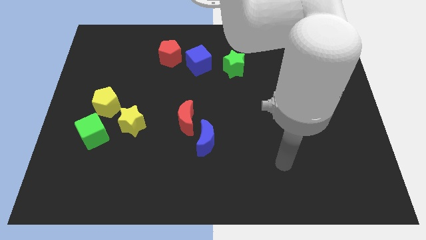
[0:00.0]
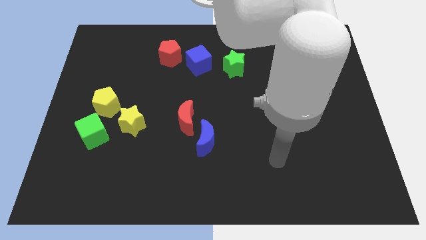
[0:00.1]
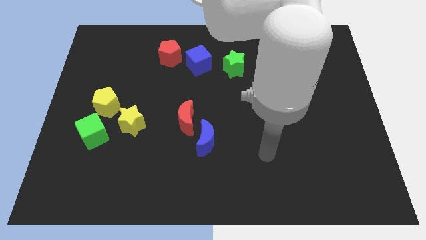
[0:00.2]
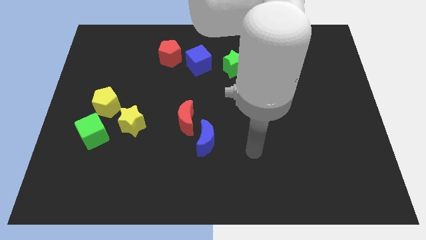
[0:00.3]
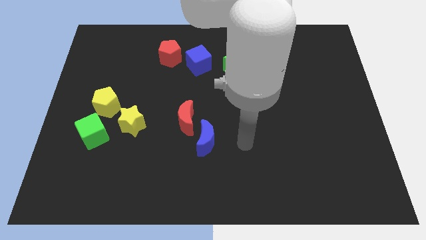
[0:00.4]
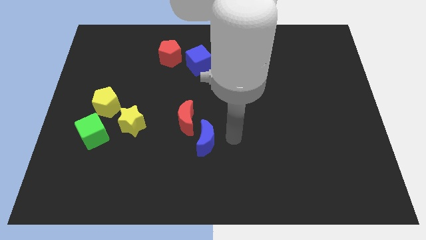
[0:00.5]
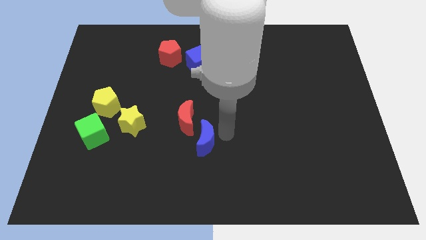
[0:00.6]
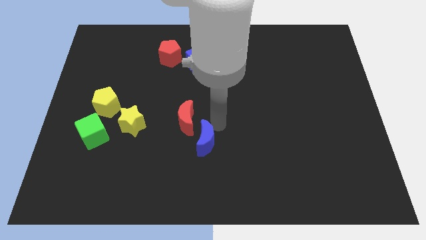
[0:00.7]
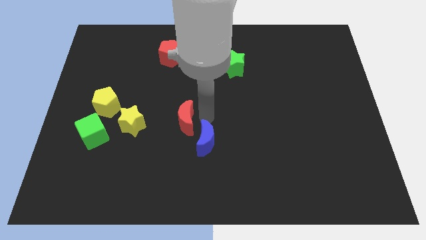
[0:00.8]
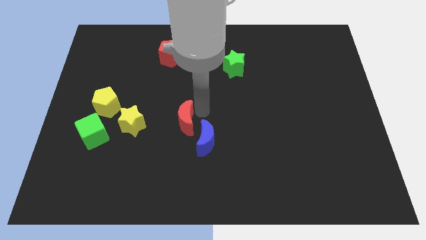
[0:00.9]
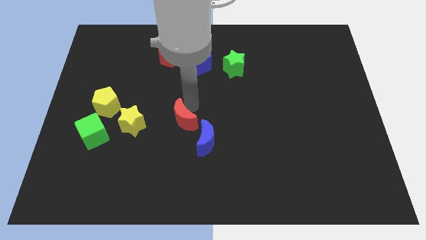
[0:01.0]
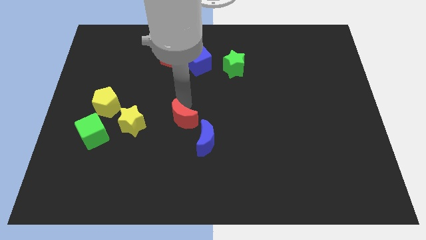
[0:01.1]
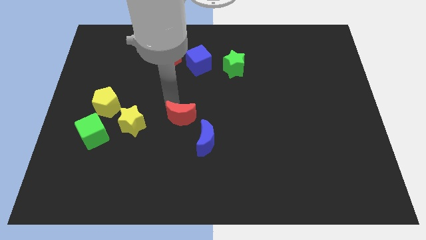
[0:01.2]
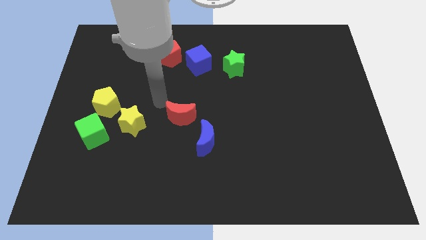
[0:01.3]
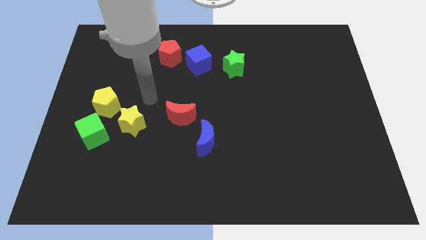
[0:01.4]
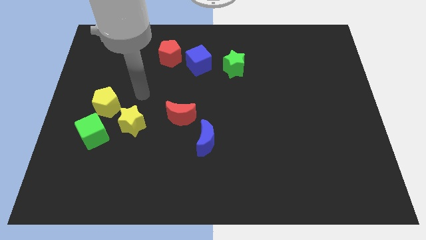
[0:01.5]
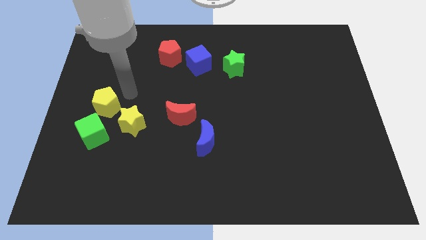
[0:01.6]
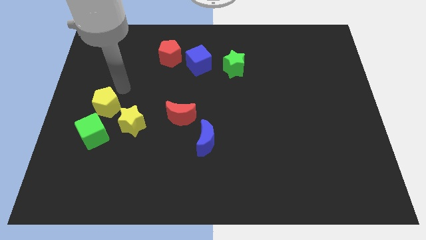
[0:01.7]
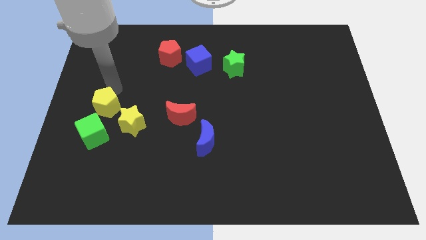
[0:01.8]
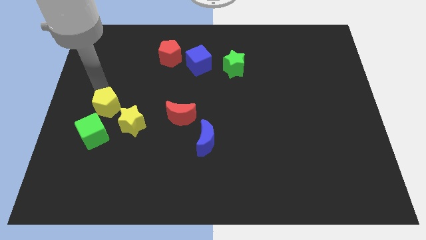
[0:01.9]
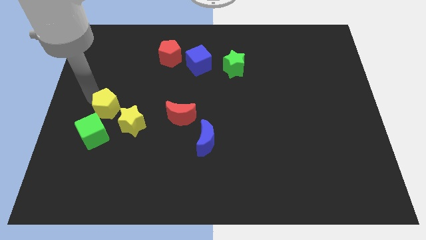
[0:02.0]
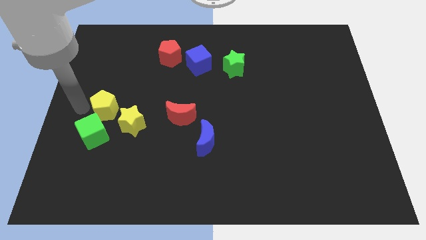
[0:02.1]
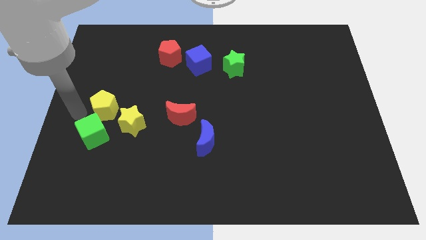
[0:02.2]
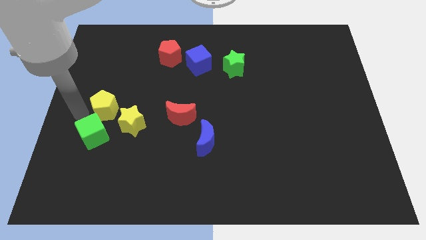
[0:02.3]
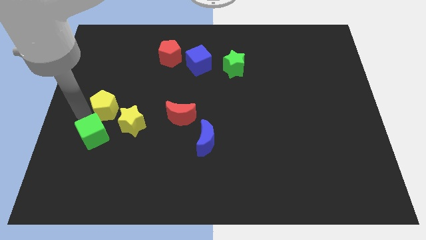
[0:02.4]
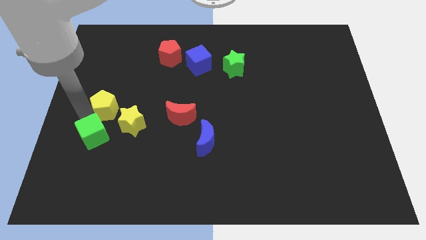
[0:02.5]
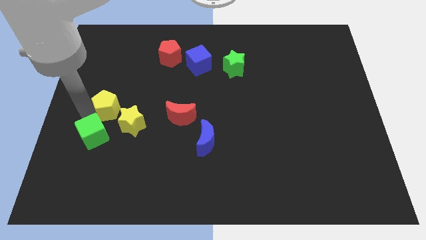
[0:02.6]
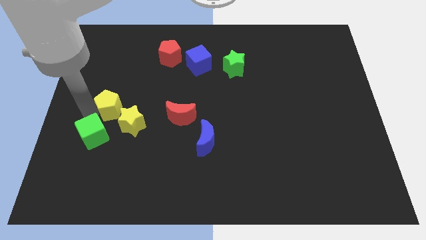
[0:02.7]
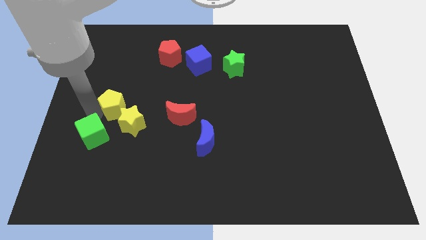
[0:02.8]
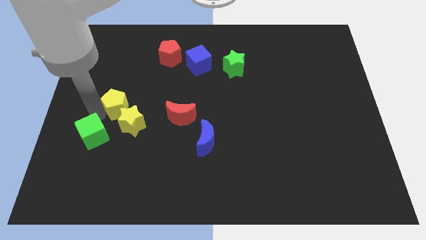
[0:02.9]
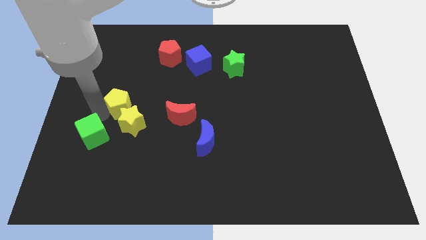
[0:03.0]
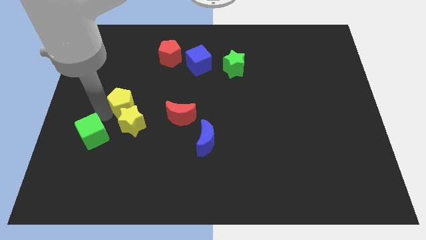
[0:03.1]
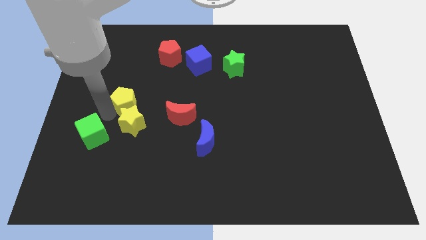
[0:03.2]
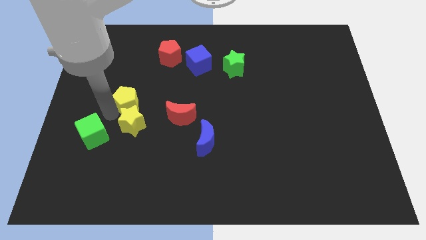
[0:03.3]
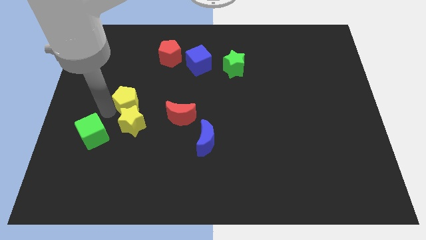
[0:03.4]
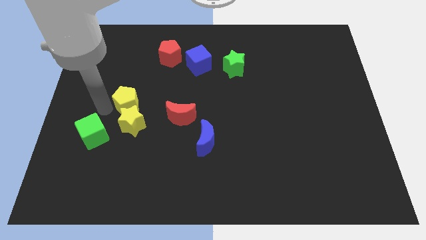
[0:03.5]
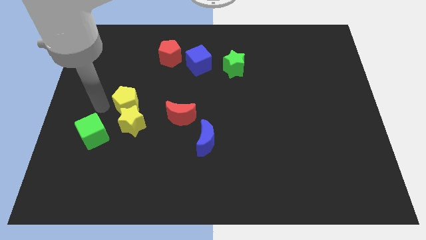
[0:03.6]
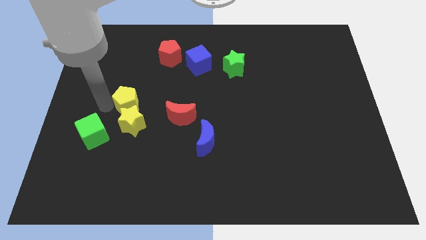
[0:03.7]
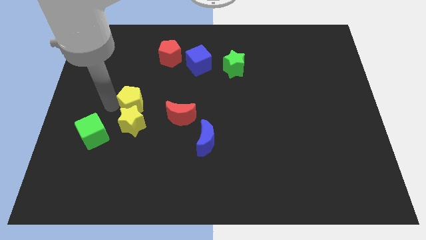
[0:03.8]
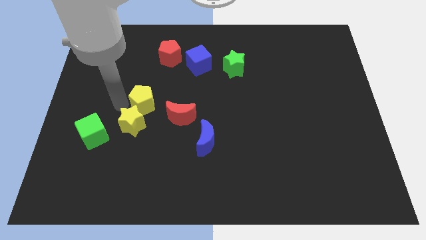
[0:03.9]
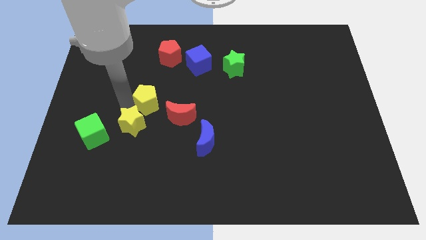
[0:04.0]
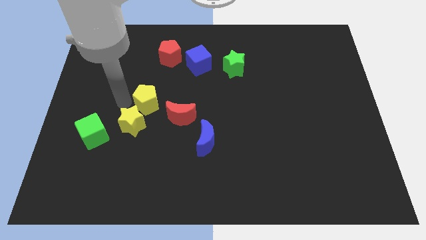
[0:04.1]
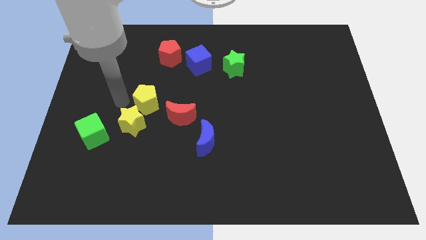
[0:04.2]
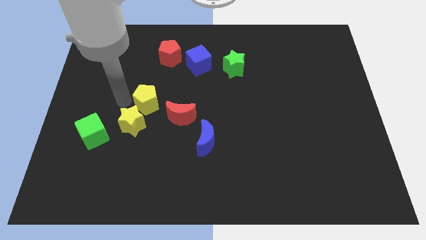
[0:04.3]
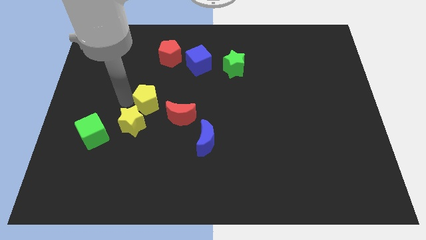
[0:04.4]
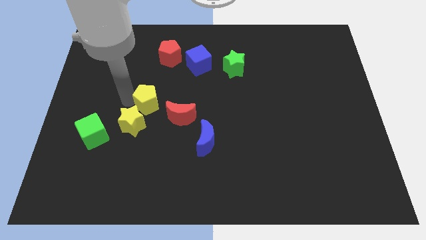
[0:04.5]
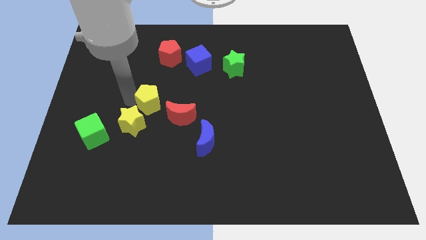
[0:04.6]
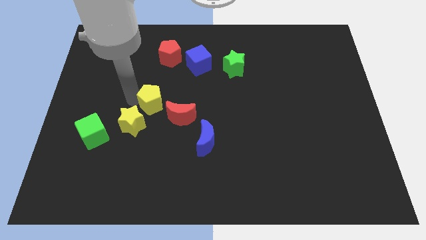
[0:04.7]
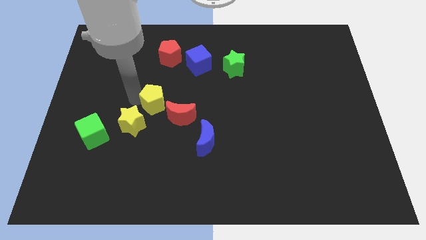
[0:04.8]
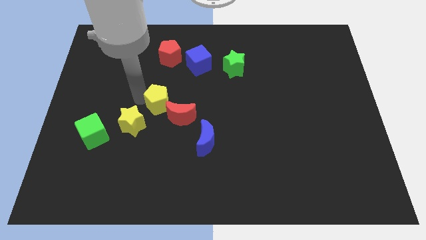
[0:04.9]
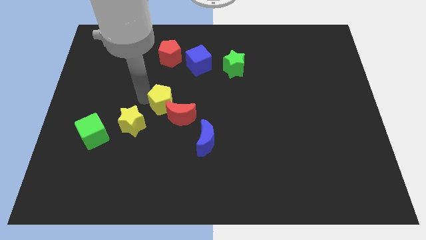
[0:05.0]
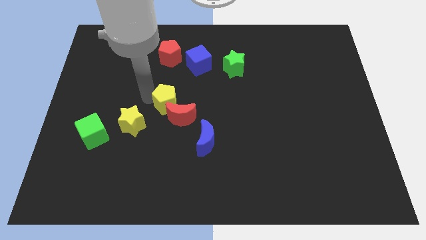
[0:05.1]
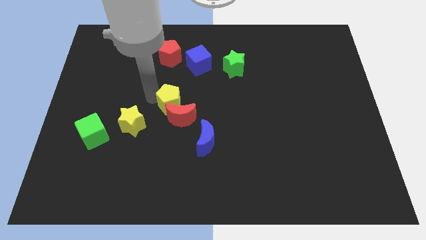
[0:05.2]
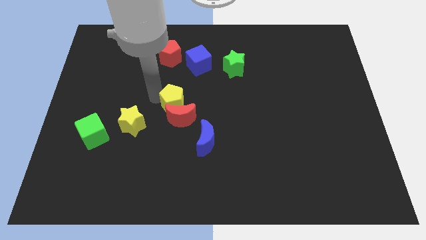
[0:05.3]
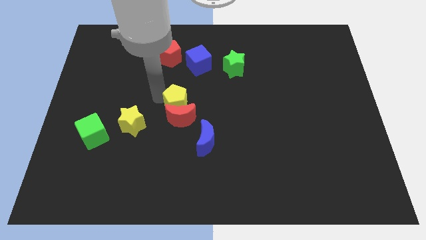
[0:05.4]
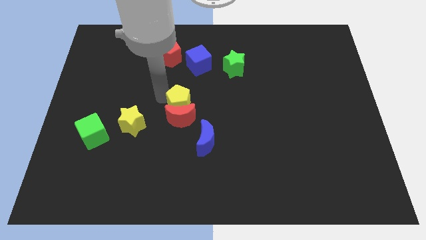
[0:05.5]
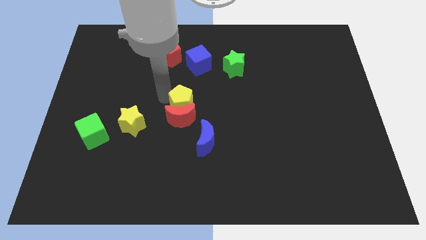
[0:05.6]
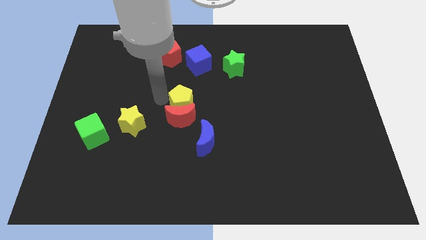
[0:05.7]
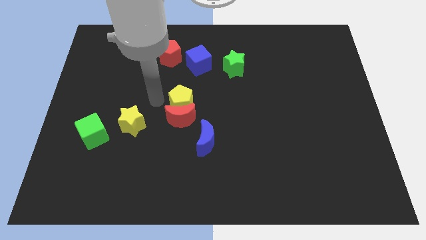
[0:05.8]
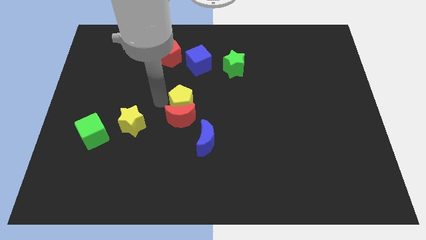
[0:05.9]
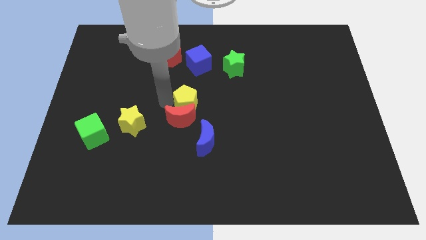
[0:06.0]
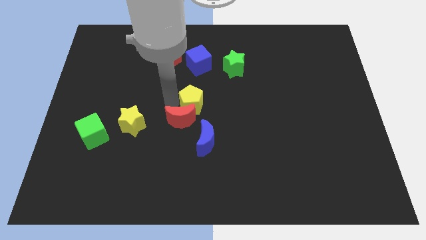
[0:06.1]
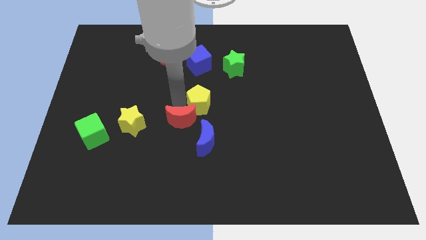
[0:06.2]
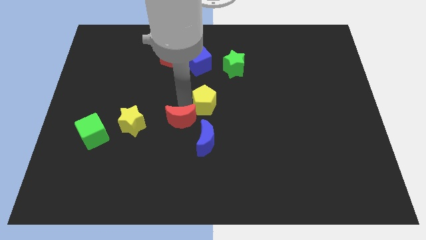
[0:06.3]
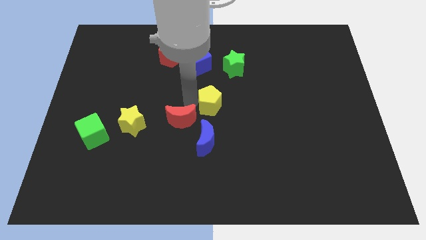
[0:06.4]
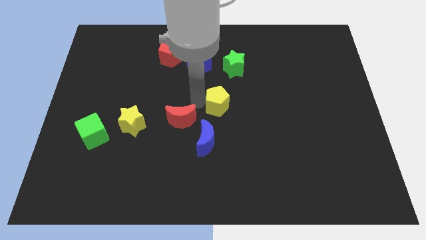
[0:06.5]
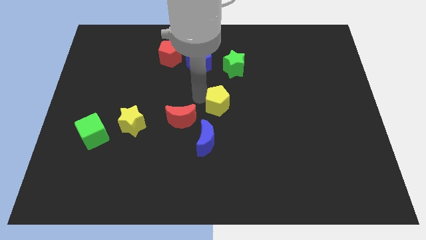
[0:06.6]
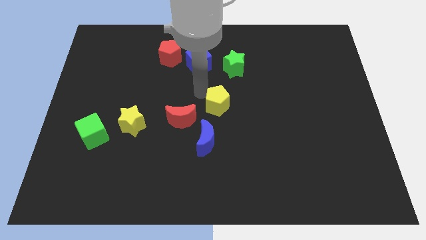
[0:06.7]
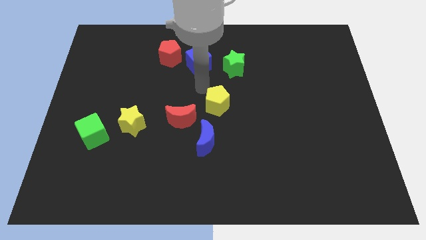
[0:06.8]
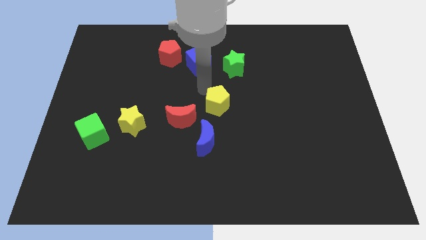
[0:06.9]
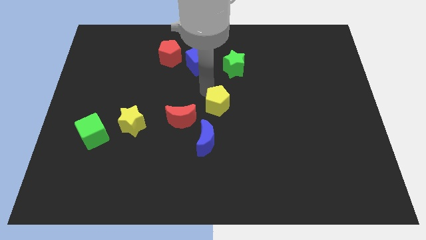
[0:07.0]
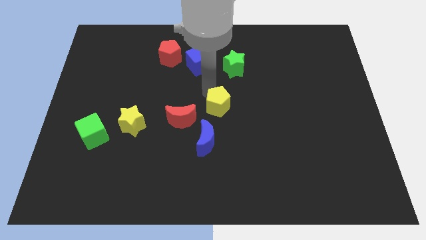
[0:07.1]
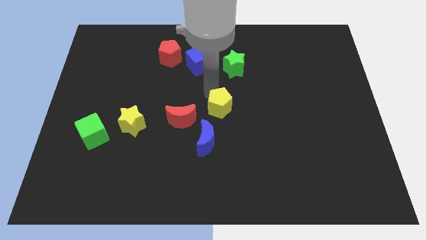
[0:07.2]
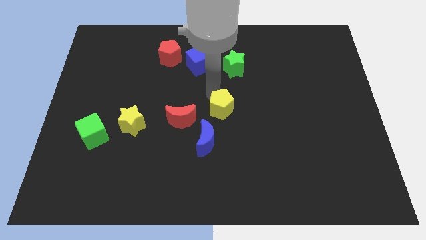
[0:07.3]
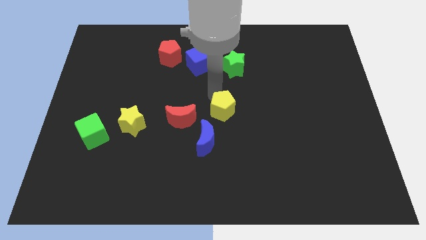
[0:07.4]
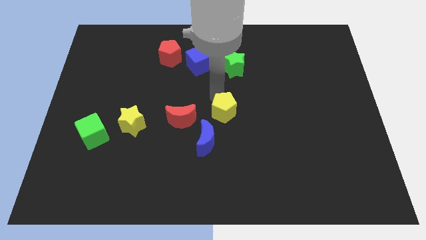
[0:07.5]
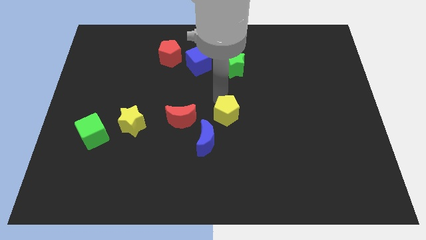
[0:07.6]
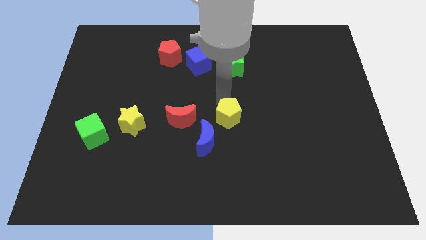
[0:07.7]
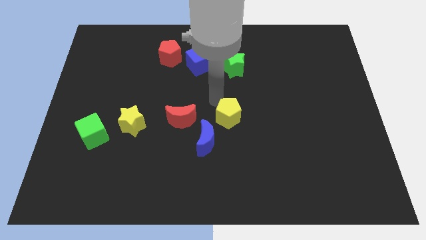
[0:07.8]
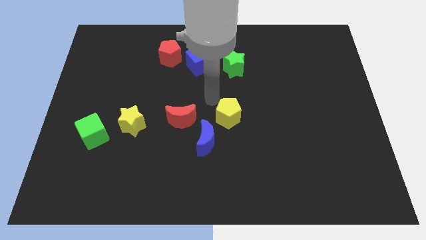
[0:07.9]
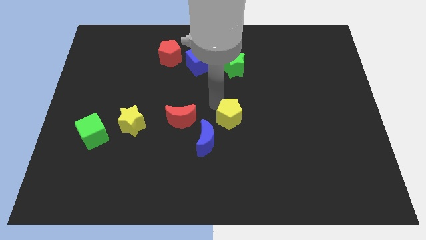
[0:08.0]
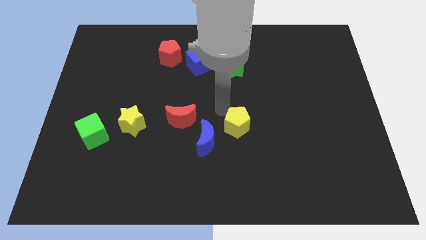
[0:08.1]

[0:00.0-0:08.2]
push the yellow pentagon right of the blue moon
